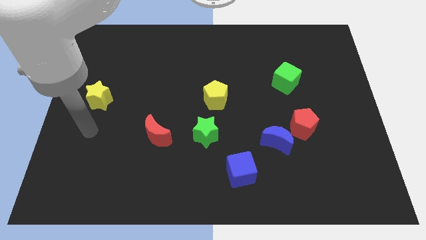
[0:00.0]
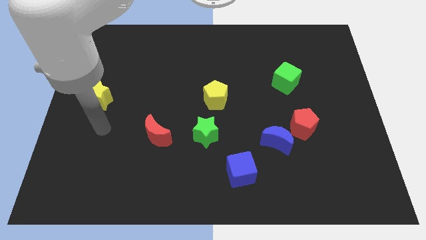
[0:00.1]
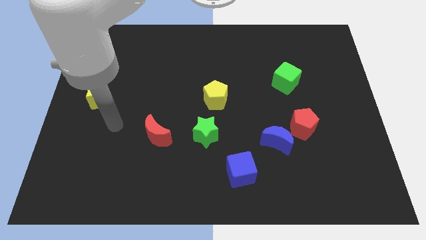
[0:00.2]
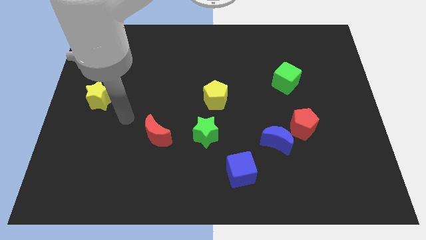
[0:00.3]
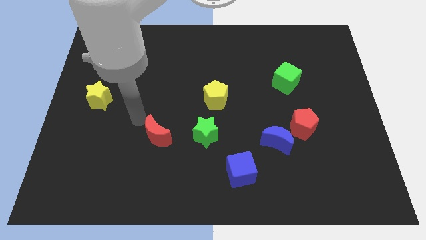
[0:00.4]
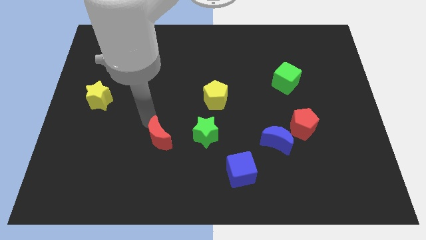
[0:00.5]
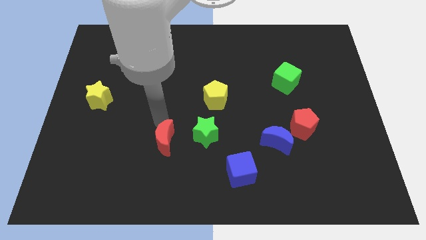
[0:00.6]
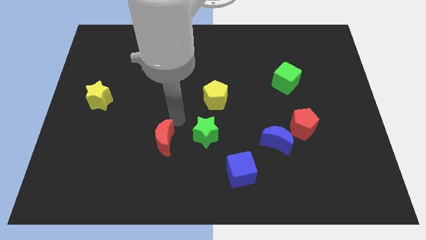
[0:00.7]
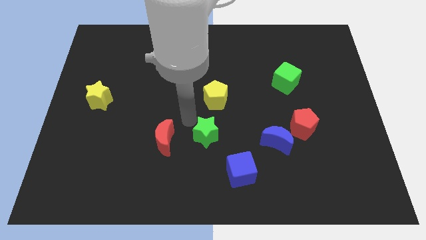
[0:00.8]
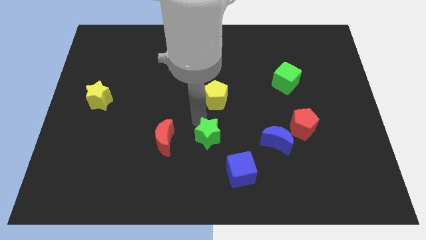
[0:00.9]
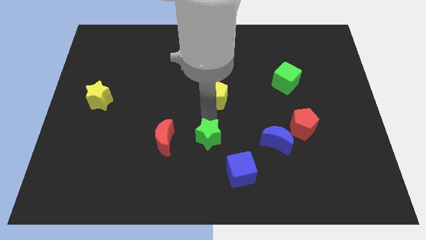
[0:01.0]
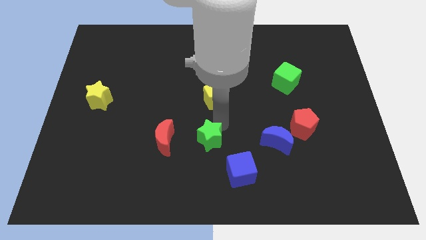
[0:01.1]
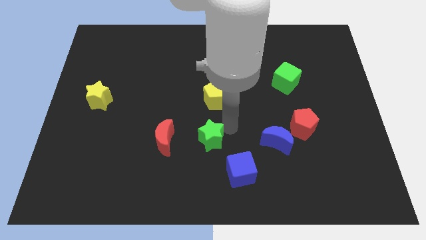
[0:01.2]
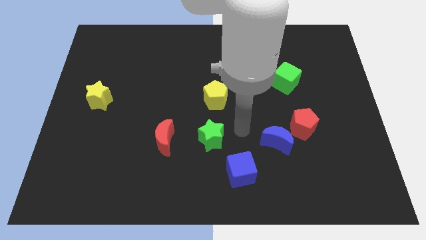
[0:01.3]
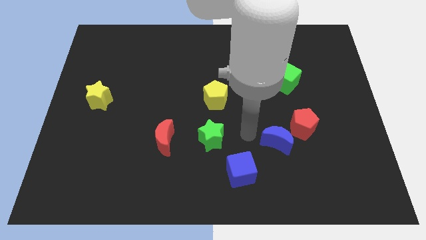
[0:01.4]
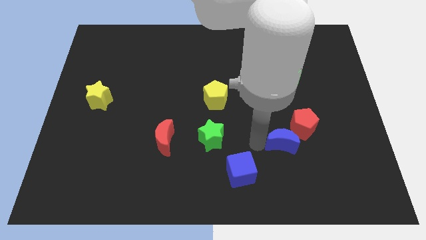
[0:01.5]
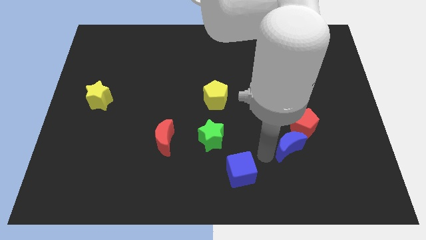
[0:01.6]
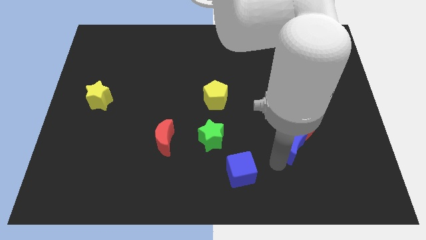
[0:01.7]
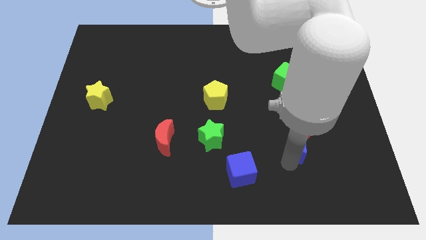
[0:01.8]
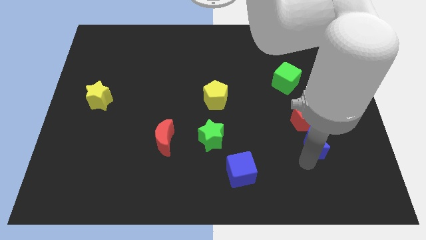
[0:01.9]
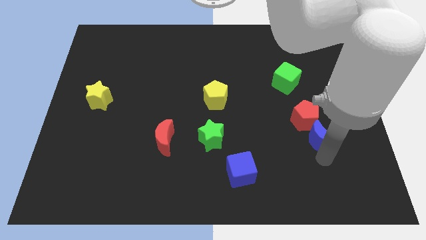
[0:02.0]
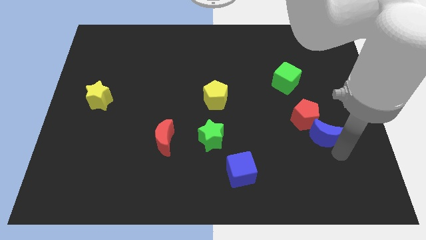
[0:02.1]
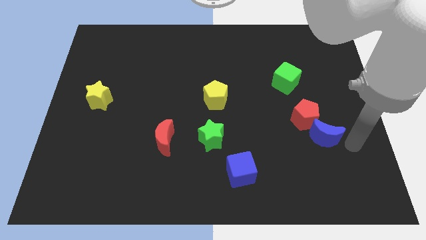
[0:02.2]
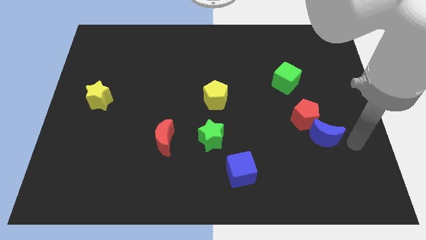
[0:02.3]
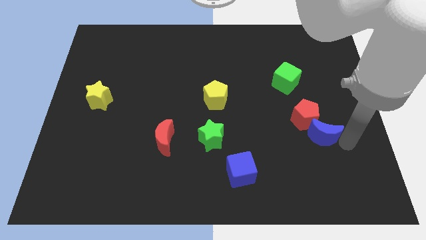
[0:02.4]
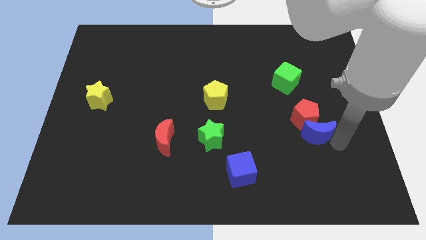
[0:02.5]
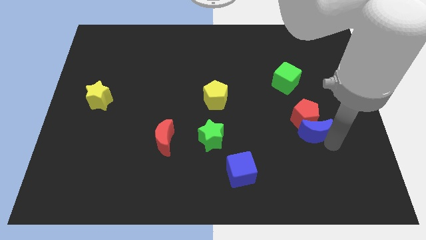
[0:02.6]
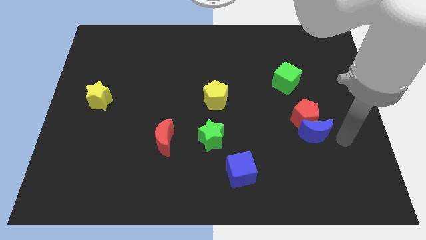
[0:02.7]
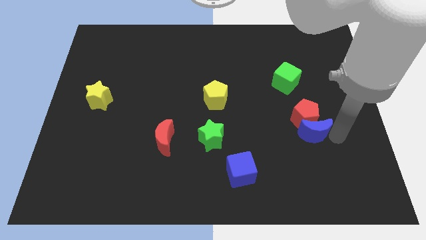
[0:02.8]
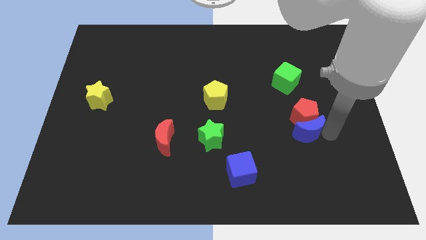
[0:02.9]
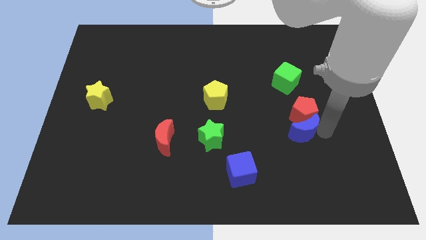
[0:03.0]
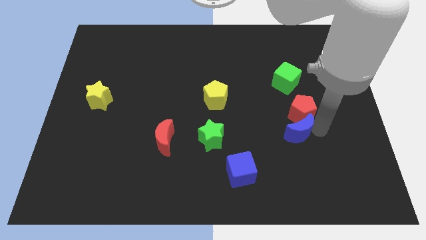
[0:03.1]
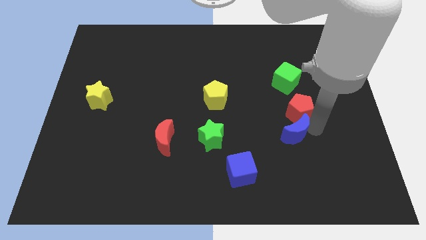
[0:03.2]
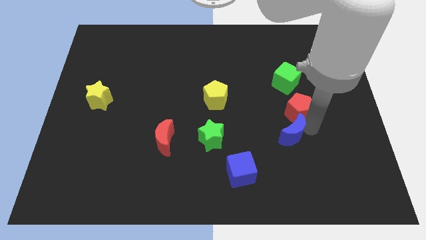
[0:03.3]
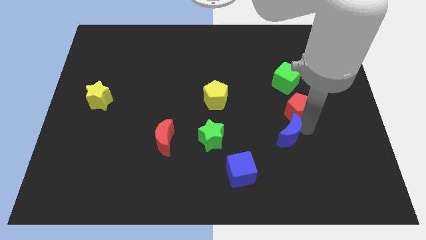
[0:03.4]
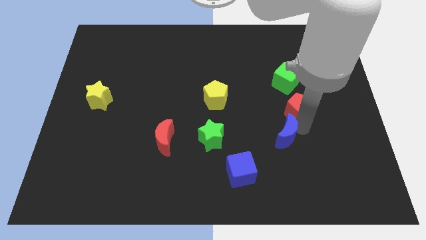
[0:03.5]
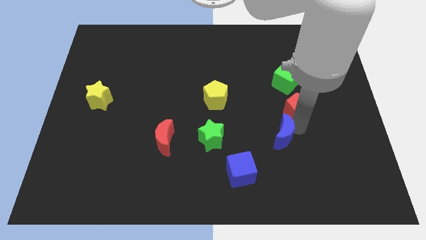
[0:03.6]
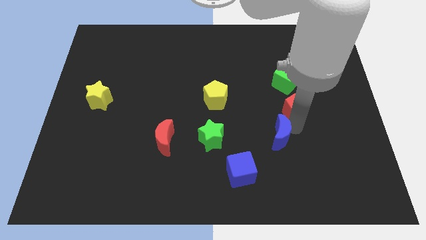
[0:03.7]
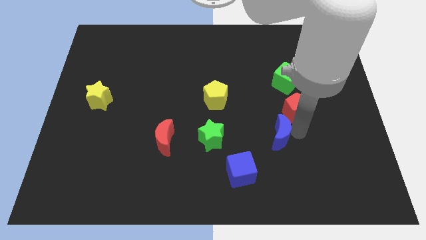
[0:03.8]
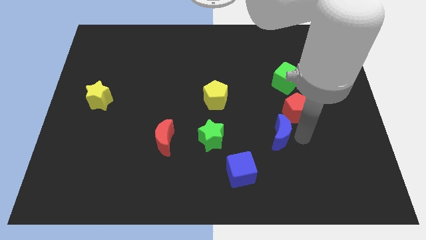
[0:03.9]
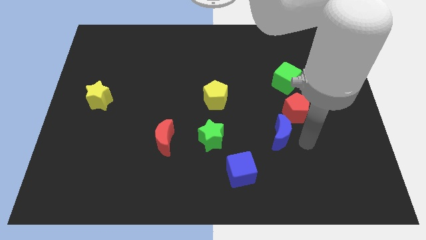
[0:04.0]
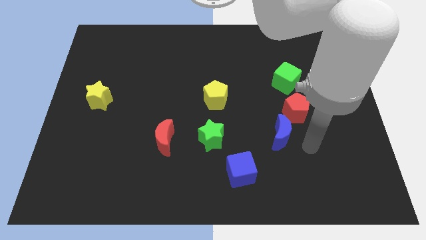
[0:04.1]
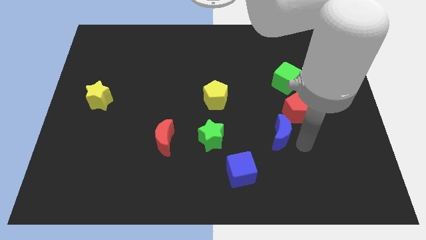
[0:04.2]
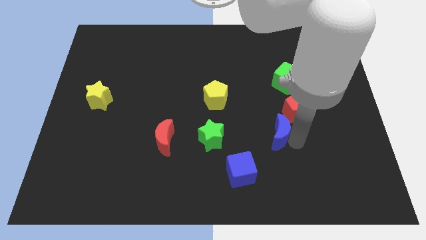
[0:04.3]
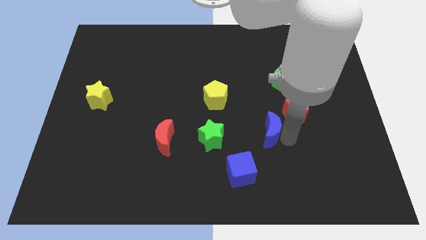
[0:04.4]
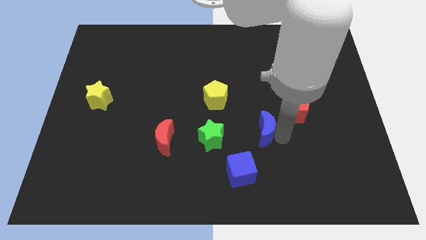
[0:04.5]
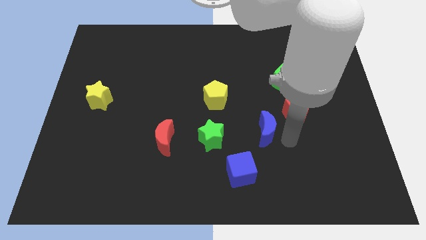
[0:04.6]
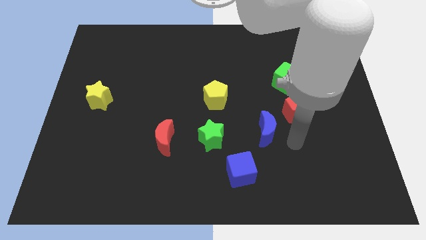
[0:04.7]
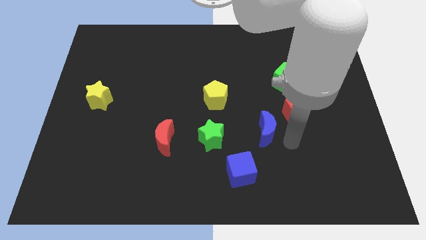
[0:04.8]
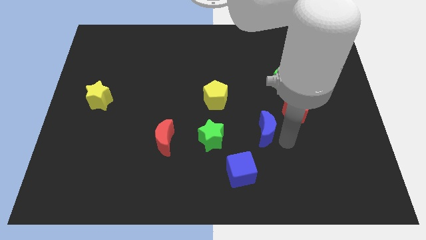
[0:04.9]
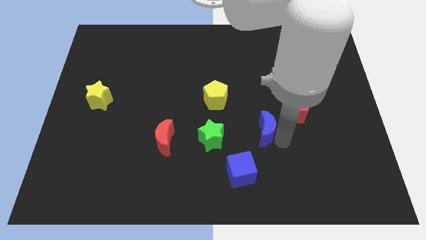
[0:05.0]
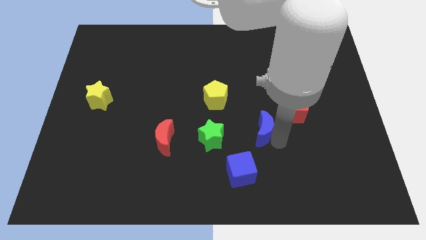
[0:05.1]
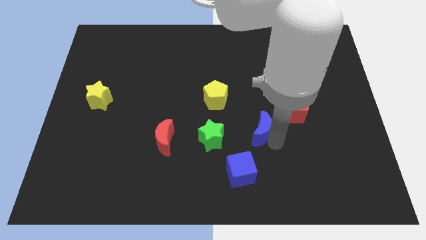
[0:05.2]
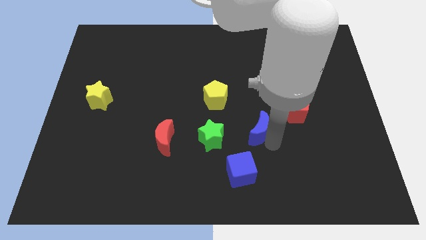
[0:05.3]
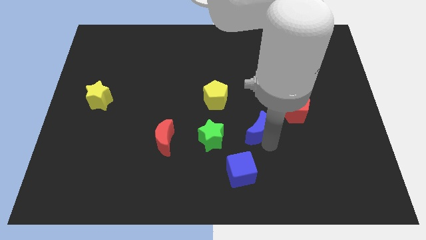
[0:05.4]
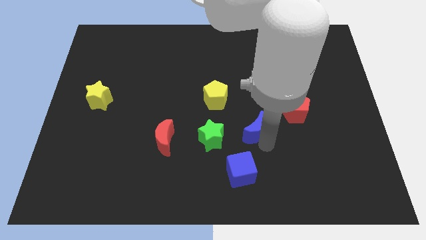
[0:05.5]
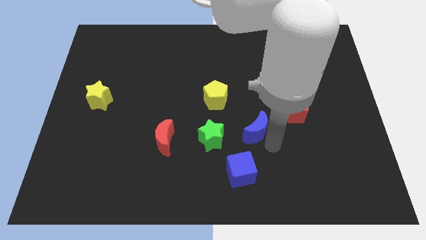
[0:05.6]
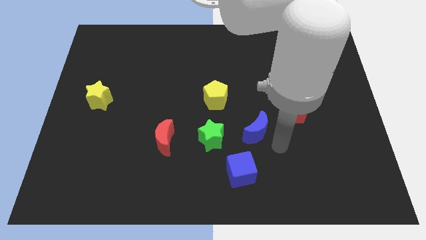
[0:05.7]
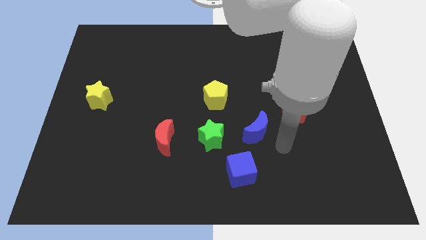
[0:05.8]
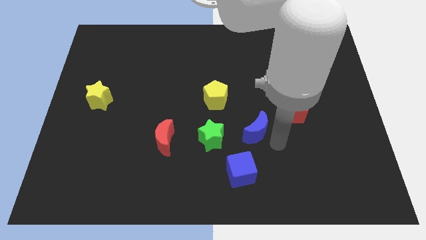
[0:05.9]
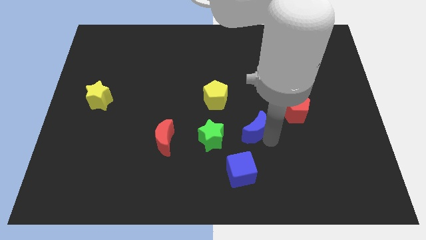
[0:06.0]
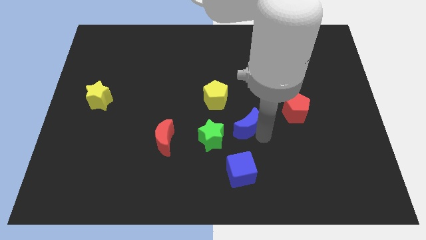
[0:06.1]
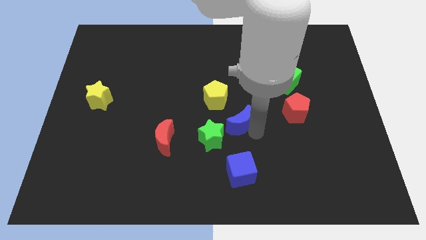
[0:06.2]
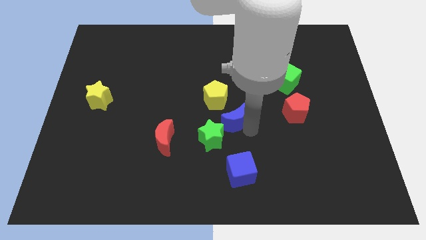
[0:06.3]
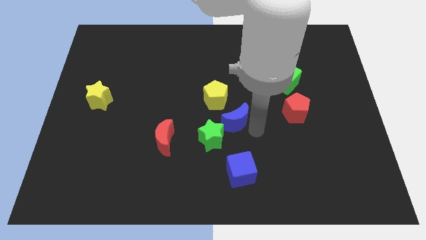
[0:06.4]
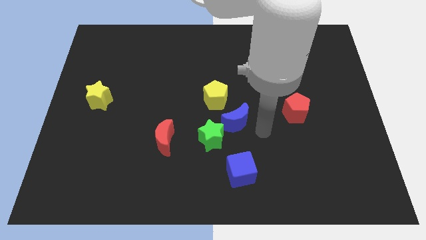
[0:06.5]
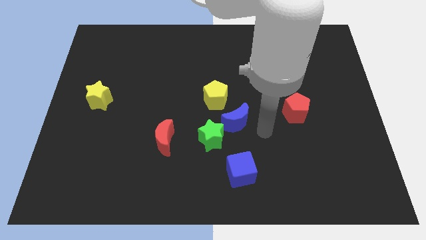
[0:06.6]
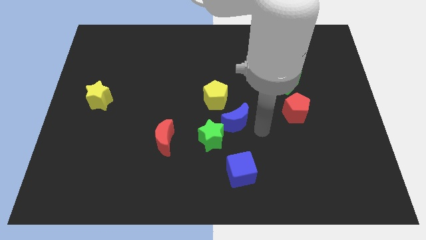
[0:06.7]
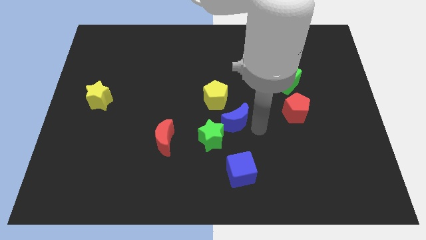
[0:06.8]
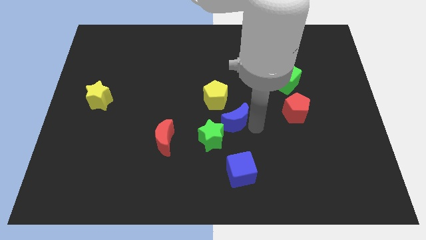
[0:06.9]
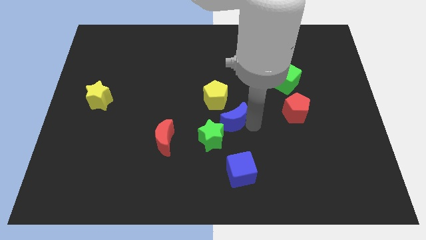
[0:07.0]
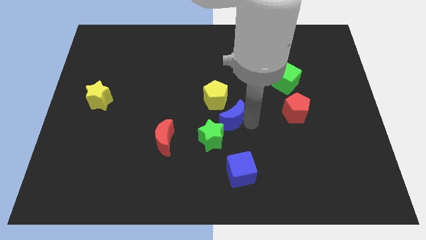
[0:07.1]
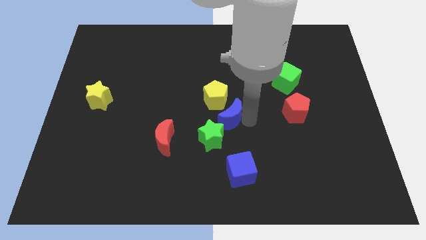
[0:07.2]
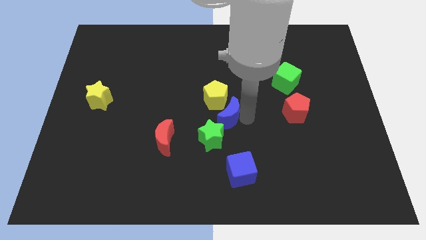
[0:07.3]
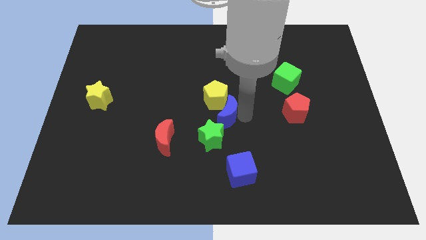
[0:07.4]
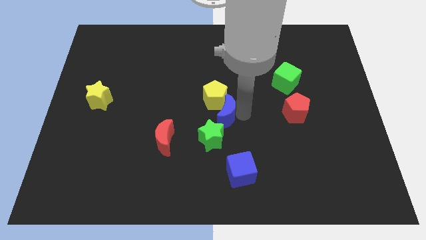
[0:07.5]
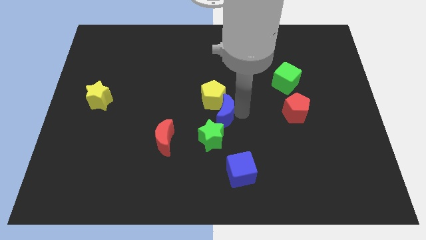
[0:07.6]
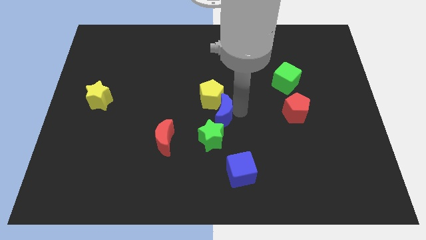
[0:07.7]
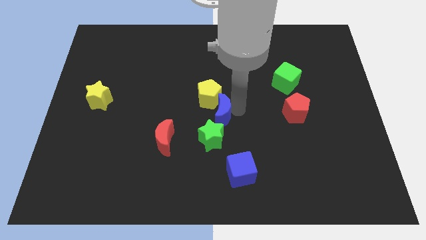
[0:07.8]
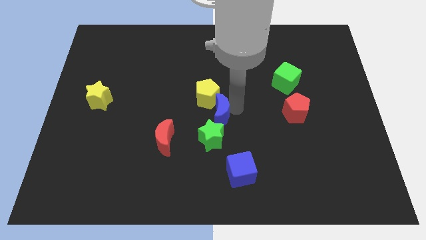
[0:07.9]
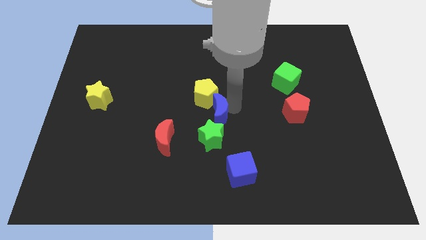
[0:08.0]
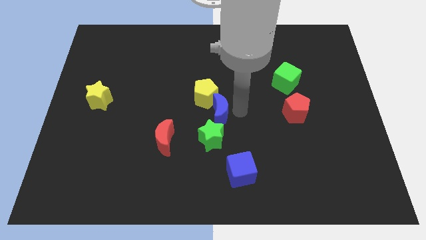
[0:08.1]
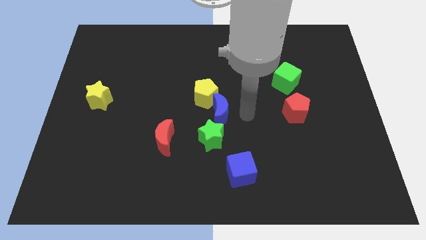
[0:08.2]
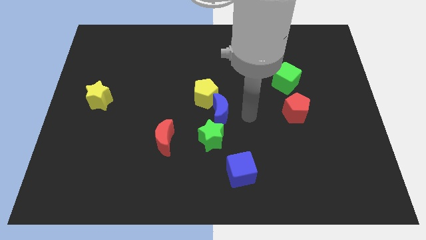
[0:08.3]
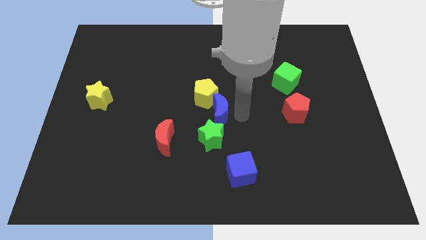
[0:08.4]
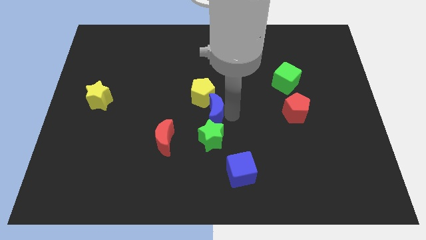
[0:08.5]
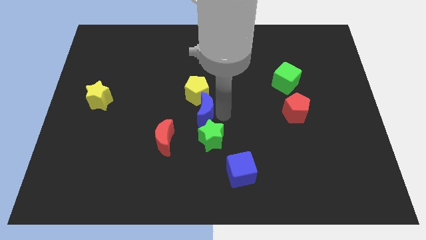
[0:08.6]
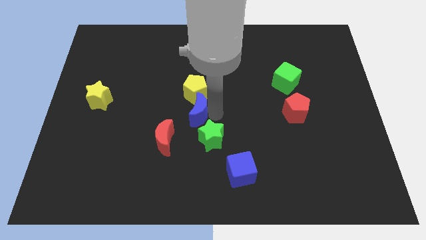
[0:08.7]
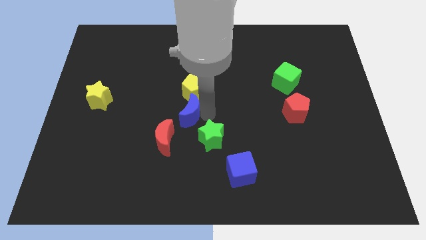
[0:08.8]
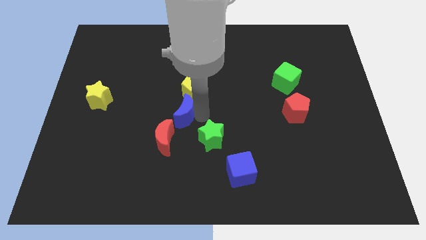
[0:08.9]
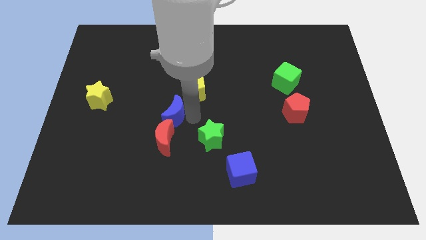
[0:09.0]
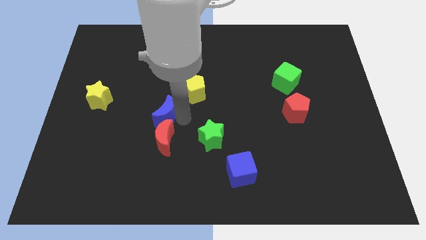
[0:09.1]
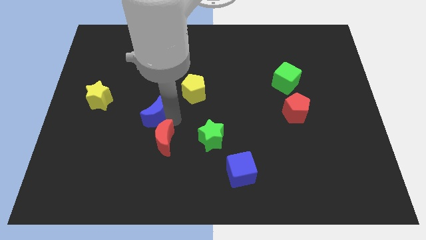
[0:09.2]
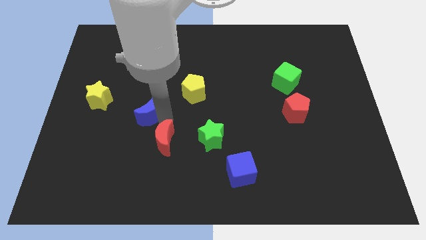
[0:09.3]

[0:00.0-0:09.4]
move the blue moon to the right side of the yellow star
